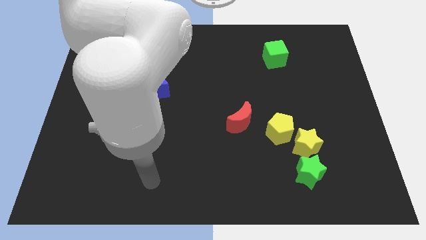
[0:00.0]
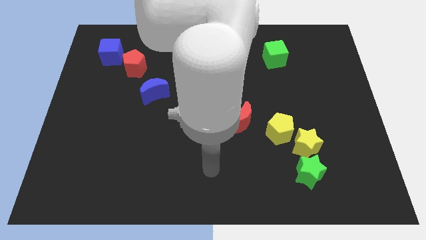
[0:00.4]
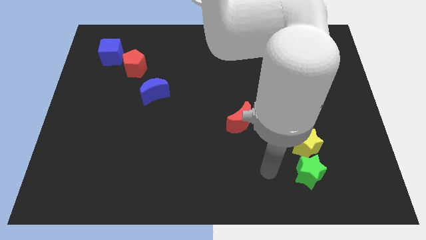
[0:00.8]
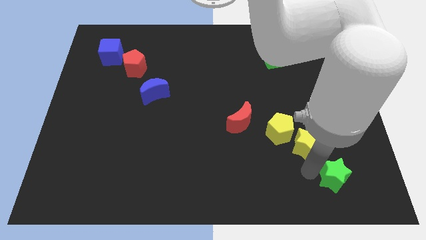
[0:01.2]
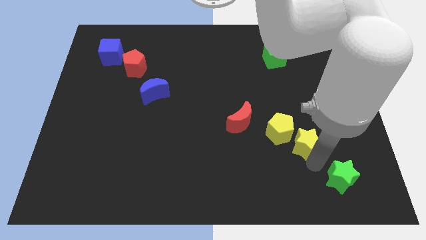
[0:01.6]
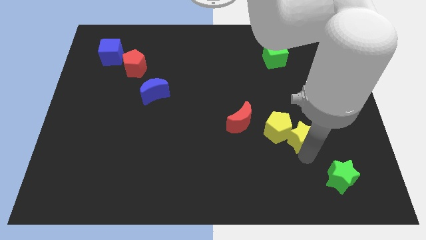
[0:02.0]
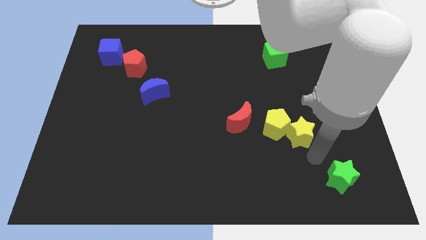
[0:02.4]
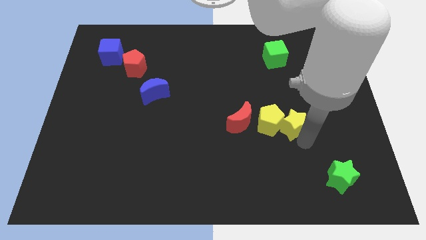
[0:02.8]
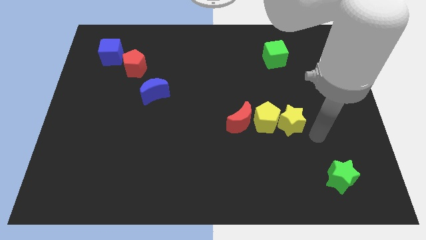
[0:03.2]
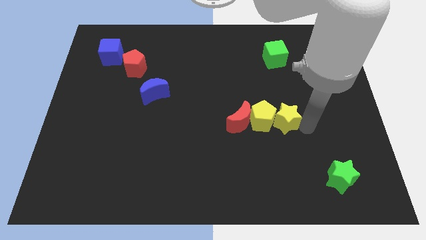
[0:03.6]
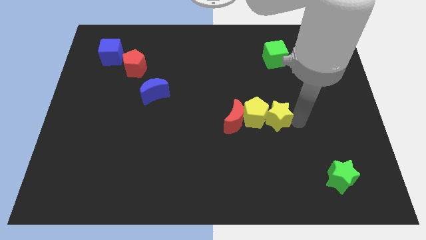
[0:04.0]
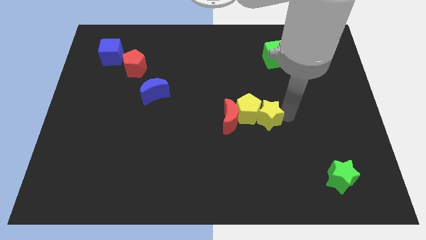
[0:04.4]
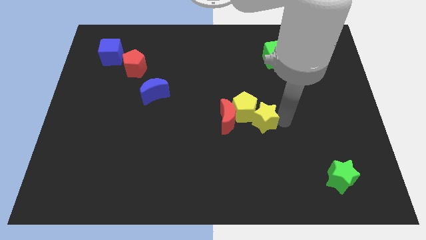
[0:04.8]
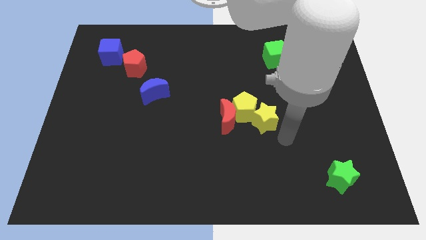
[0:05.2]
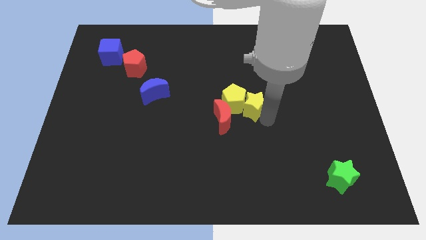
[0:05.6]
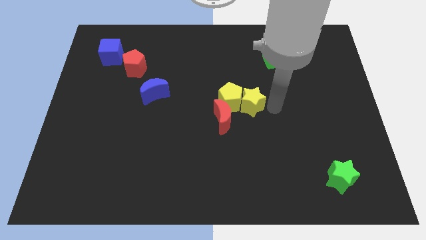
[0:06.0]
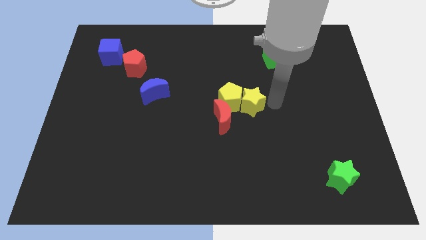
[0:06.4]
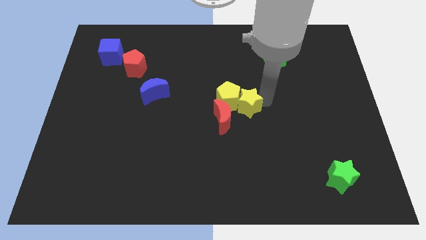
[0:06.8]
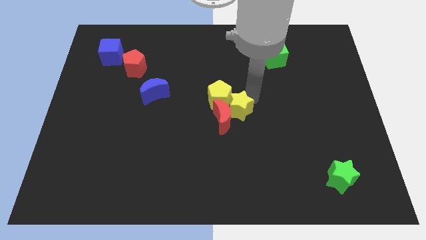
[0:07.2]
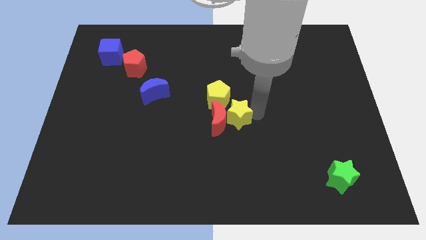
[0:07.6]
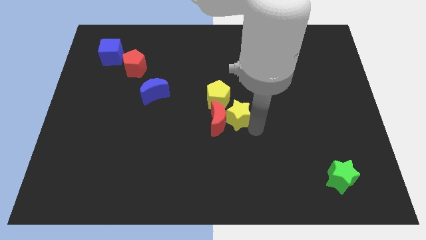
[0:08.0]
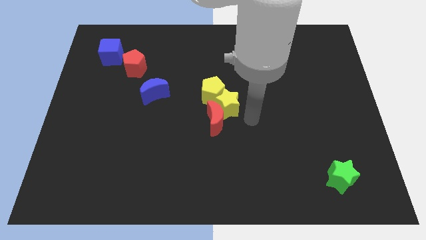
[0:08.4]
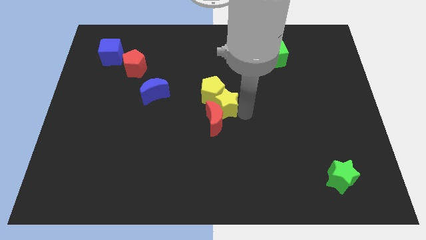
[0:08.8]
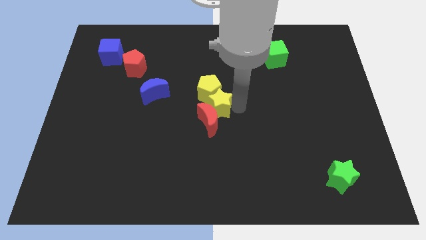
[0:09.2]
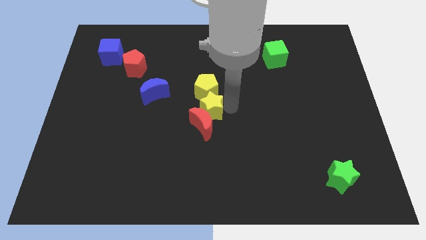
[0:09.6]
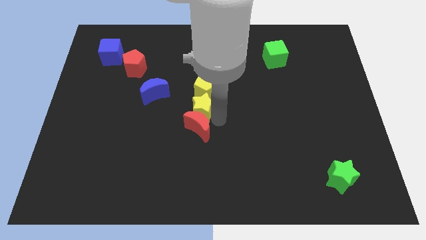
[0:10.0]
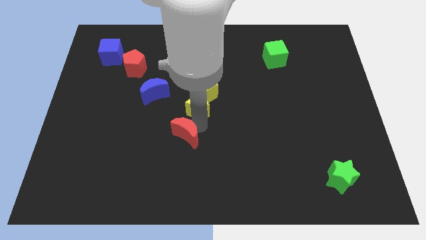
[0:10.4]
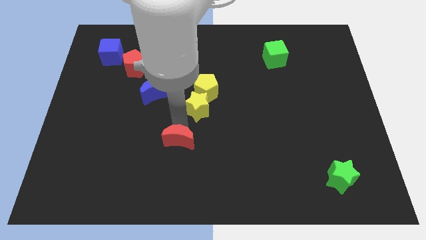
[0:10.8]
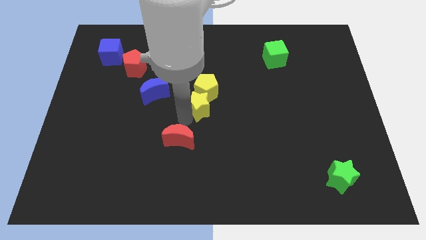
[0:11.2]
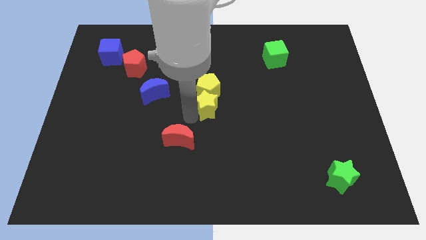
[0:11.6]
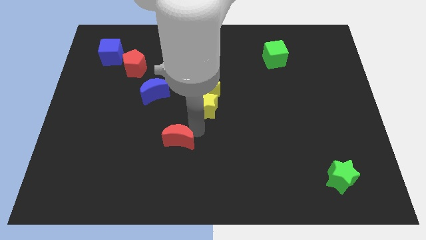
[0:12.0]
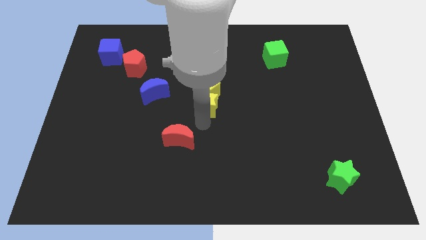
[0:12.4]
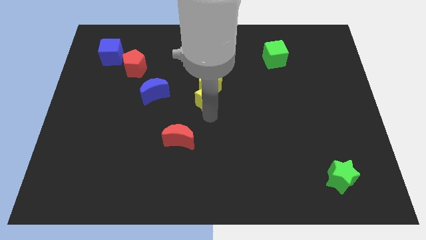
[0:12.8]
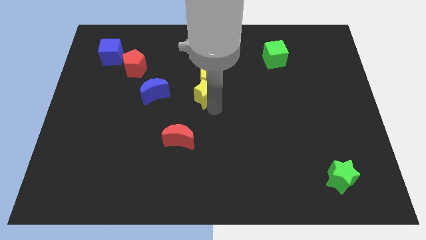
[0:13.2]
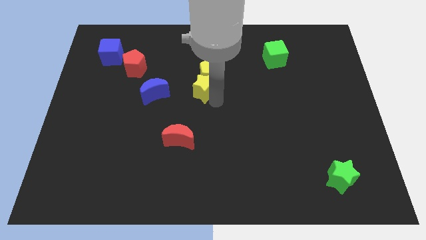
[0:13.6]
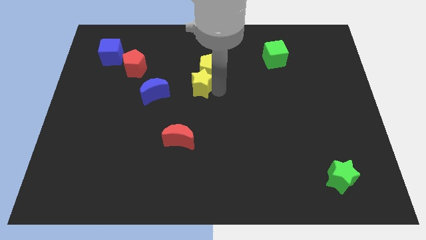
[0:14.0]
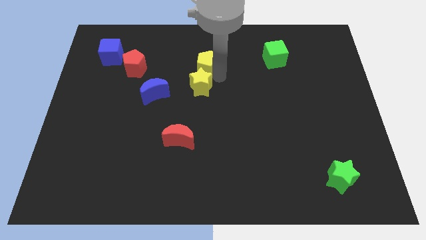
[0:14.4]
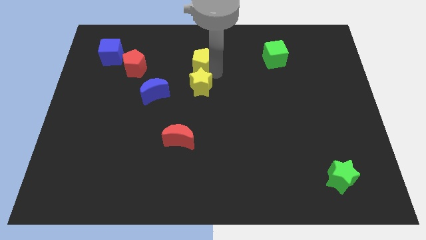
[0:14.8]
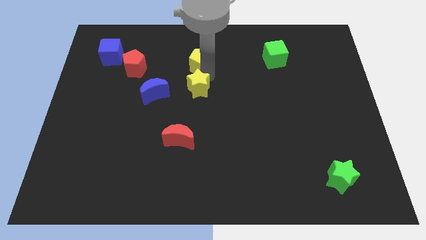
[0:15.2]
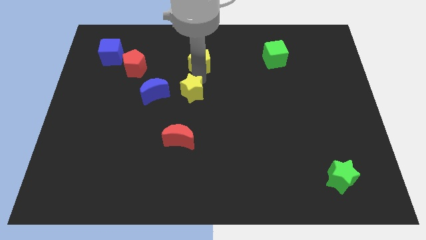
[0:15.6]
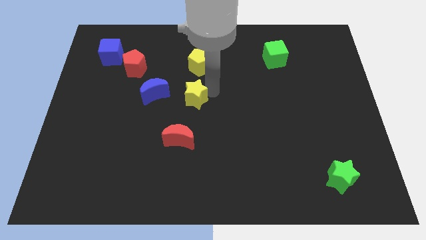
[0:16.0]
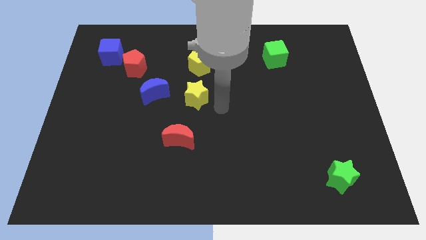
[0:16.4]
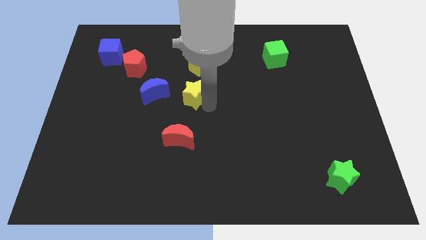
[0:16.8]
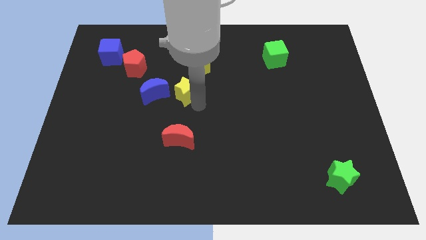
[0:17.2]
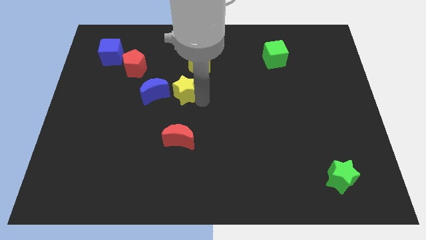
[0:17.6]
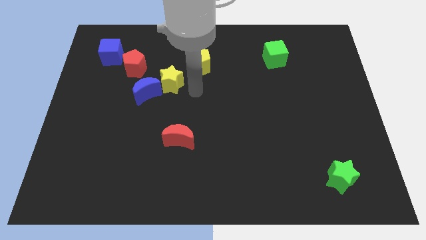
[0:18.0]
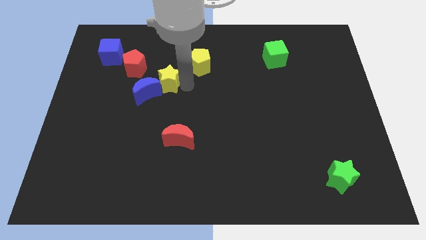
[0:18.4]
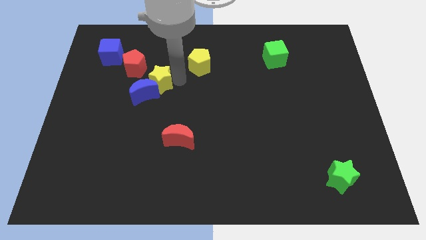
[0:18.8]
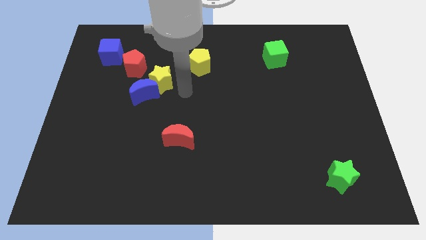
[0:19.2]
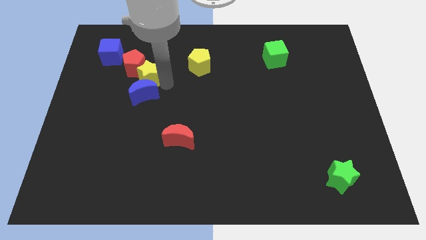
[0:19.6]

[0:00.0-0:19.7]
move the yellow star next to the red pentagon

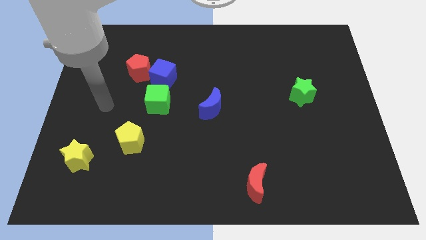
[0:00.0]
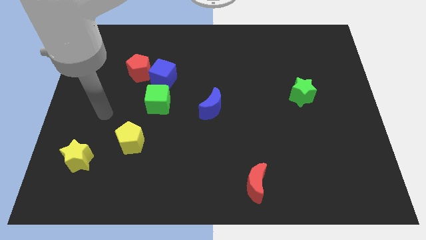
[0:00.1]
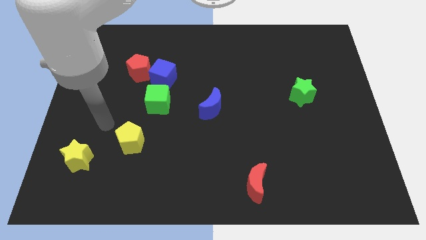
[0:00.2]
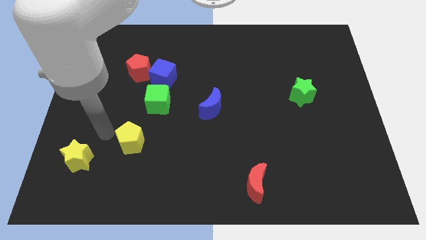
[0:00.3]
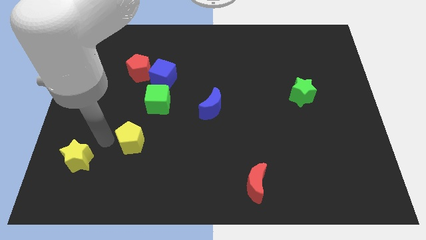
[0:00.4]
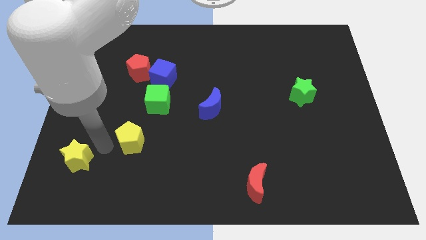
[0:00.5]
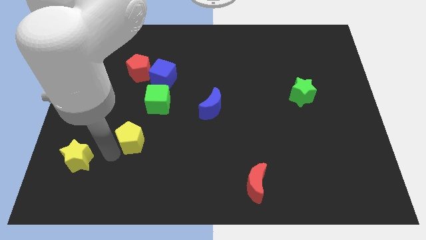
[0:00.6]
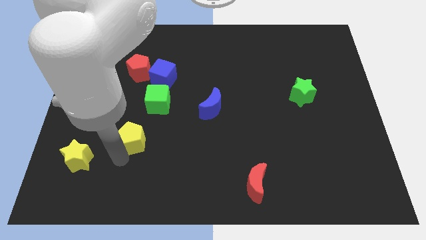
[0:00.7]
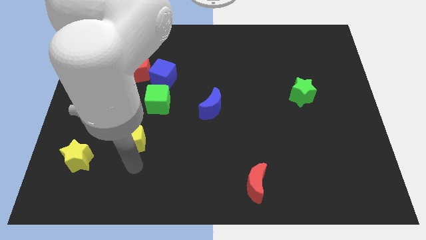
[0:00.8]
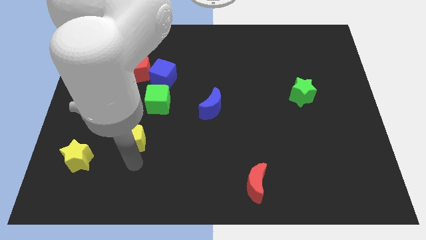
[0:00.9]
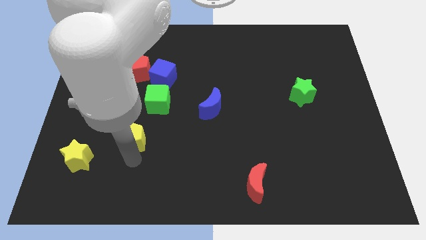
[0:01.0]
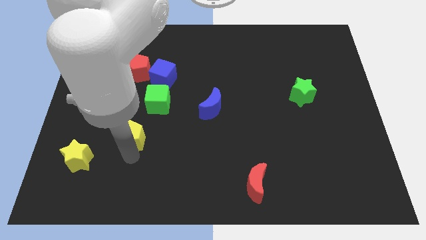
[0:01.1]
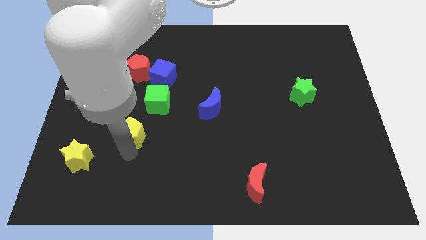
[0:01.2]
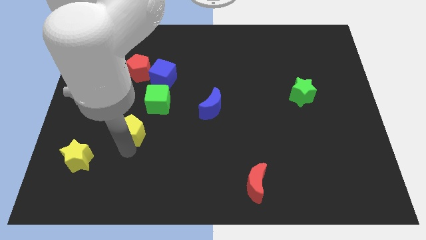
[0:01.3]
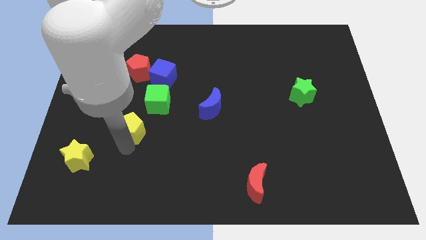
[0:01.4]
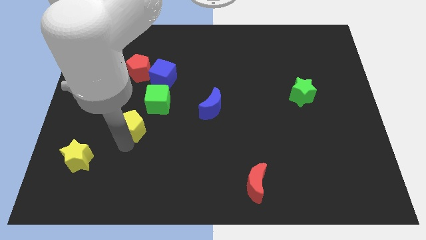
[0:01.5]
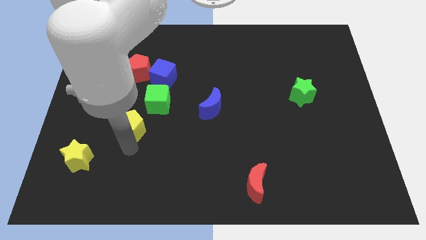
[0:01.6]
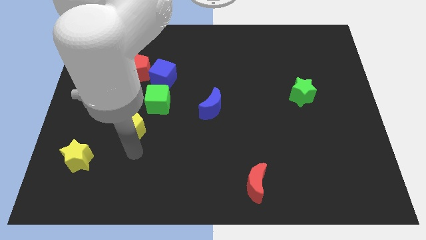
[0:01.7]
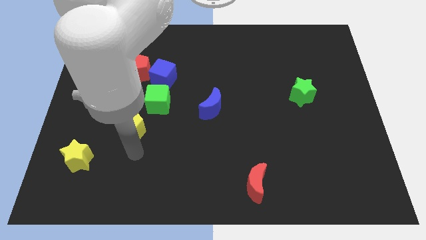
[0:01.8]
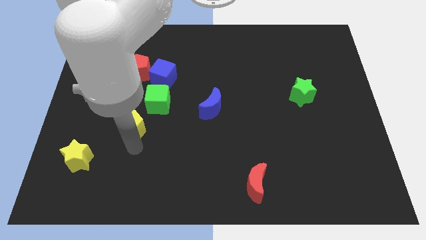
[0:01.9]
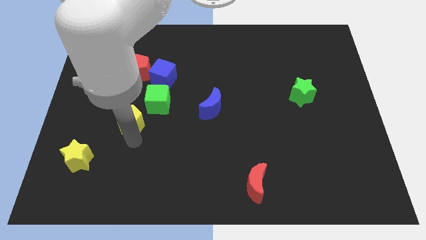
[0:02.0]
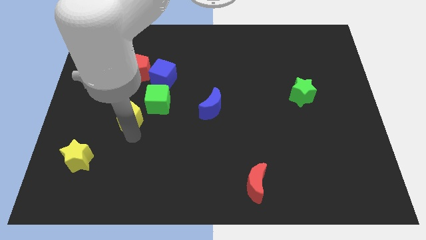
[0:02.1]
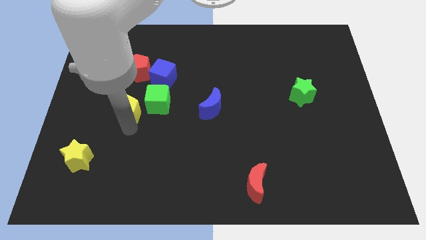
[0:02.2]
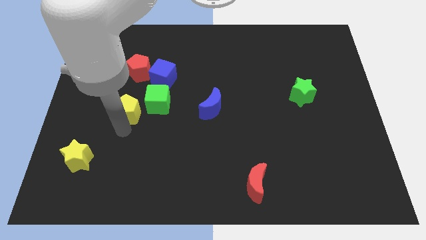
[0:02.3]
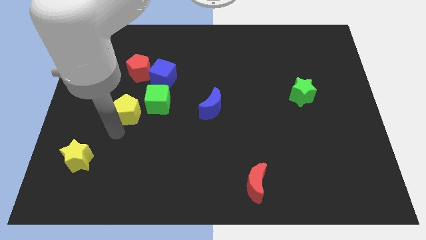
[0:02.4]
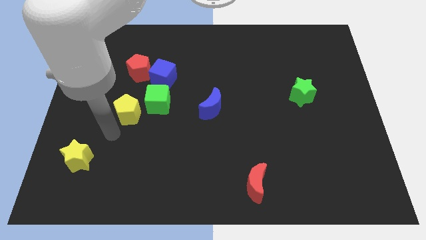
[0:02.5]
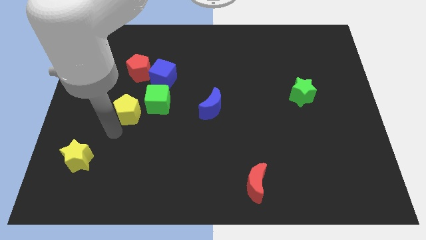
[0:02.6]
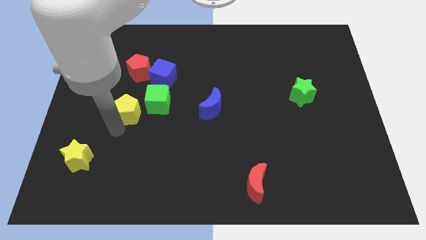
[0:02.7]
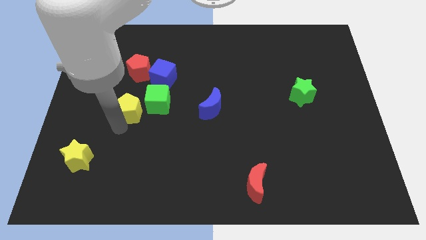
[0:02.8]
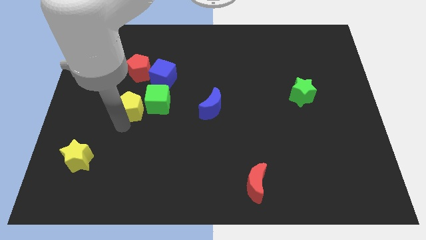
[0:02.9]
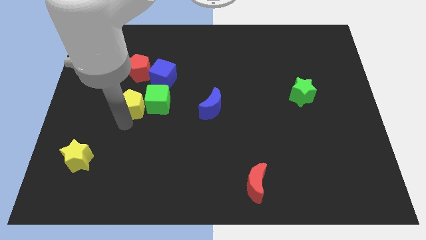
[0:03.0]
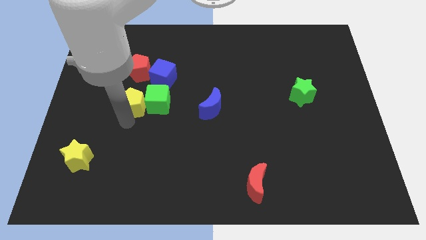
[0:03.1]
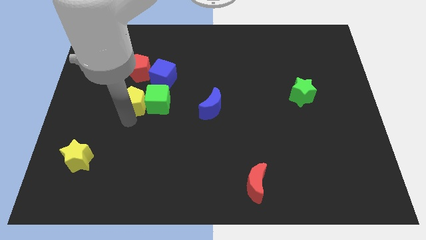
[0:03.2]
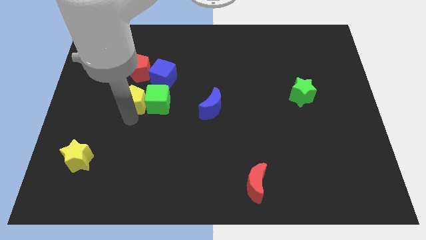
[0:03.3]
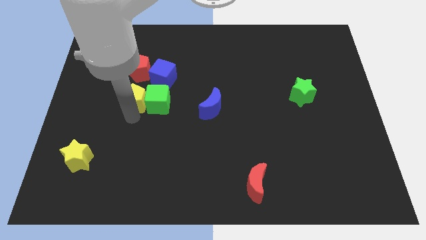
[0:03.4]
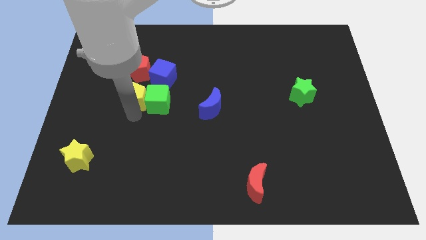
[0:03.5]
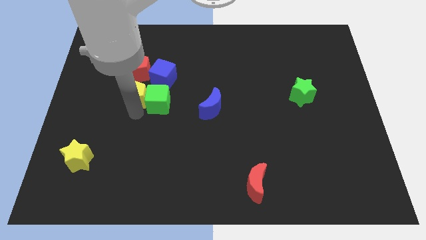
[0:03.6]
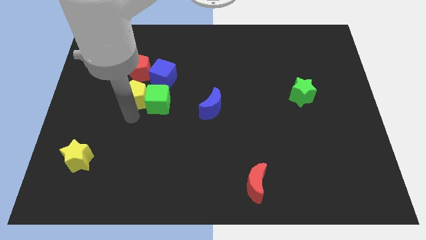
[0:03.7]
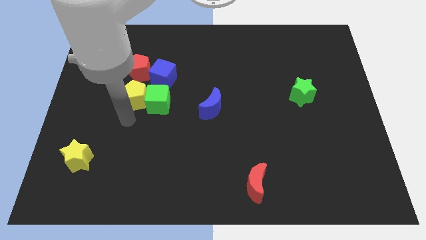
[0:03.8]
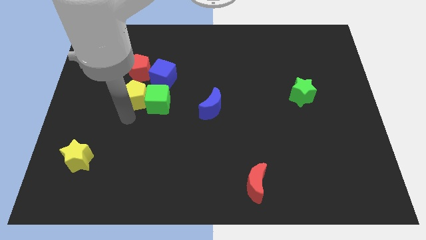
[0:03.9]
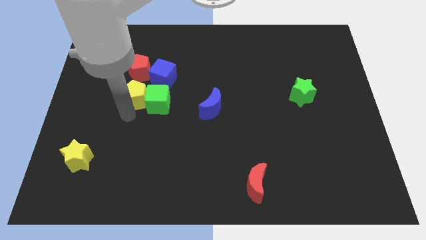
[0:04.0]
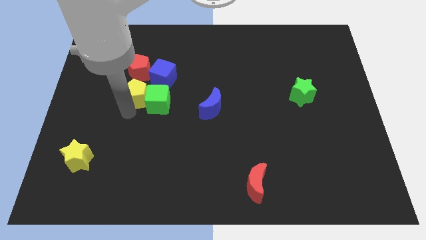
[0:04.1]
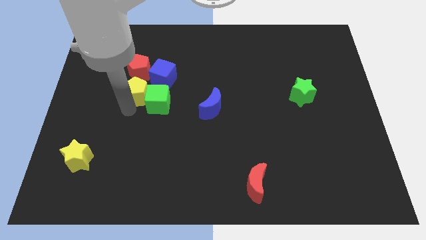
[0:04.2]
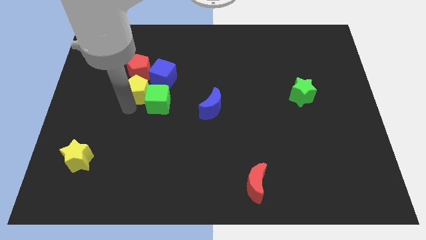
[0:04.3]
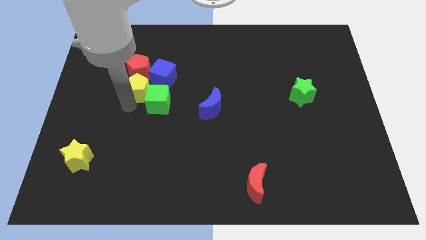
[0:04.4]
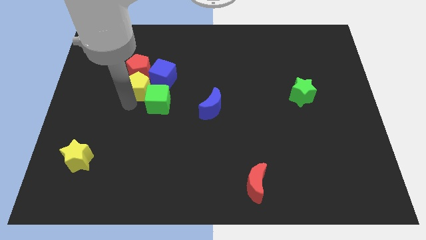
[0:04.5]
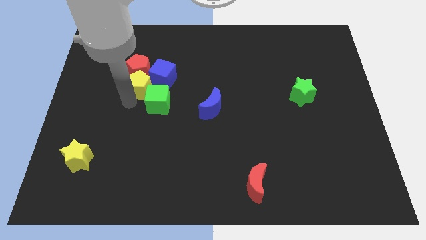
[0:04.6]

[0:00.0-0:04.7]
slide the yellow pentagon to the red pentagon
